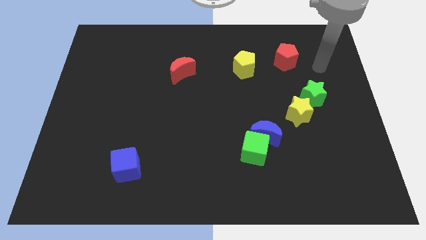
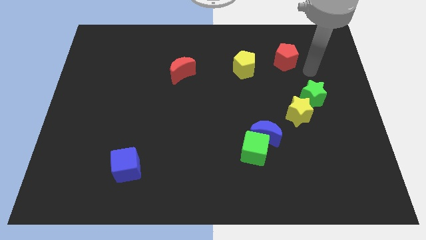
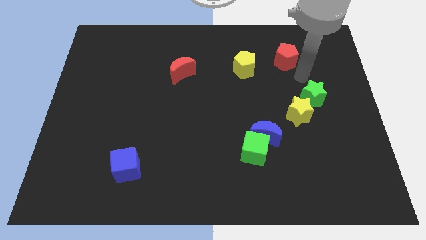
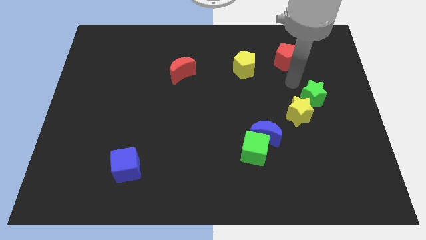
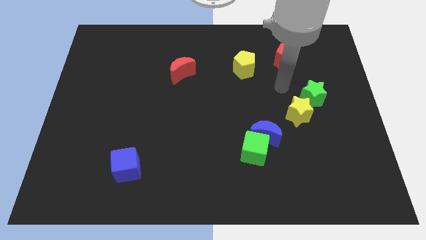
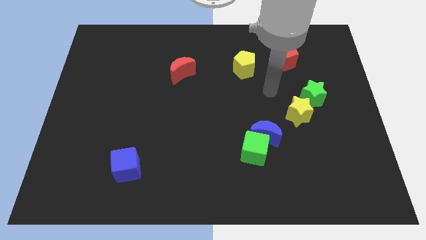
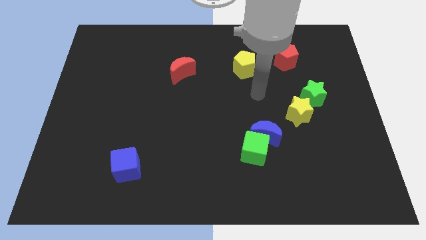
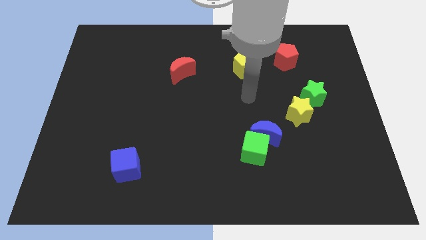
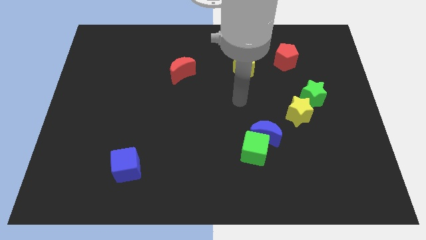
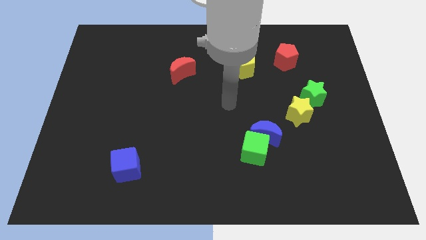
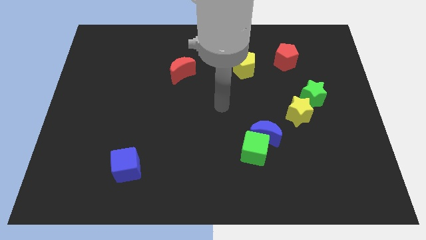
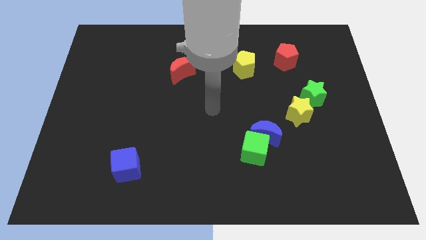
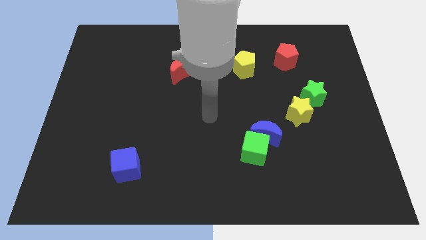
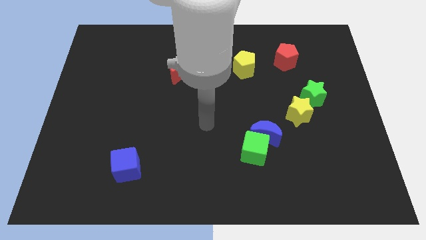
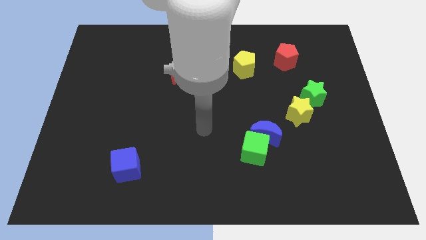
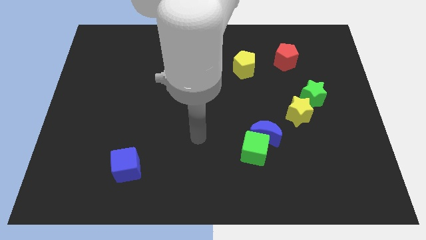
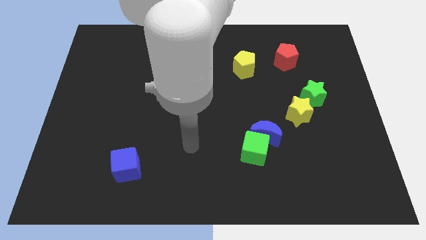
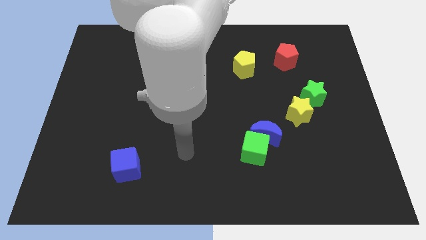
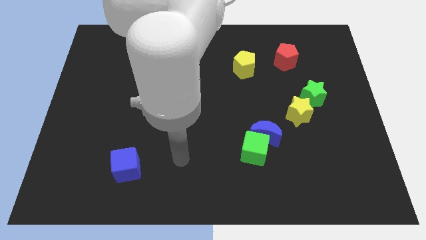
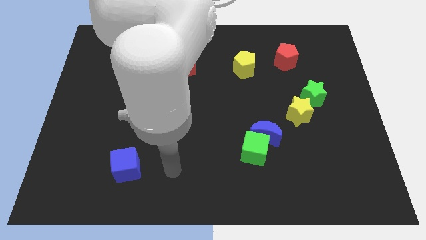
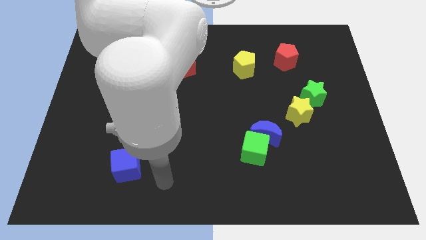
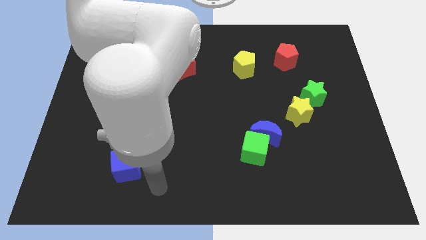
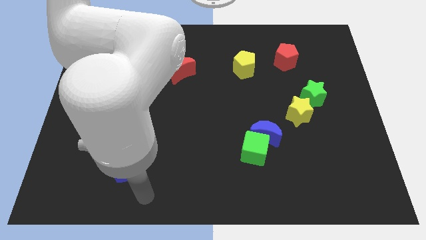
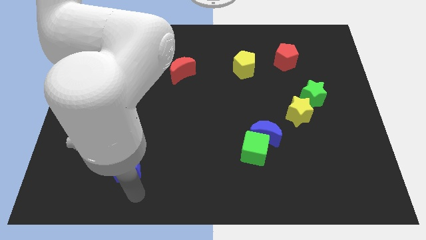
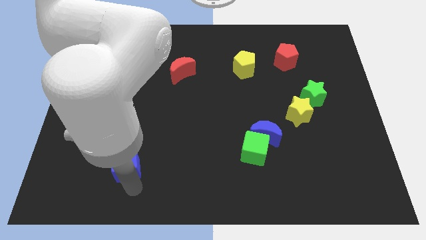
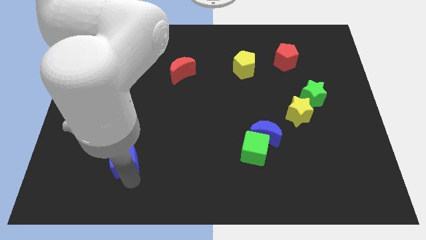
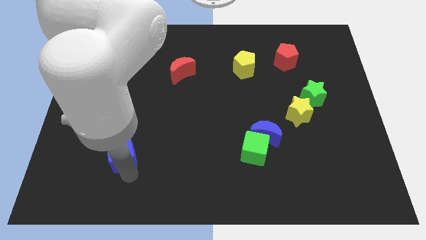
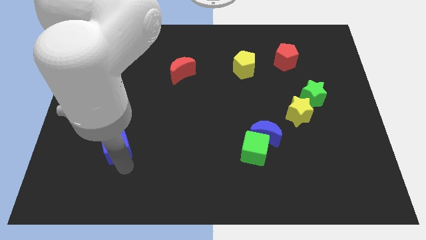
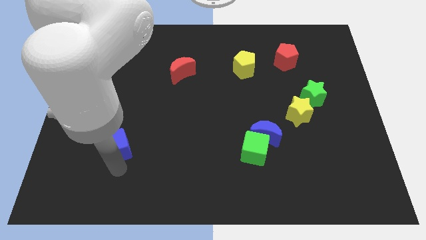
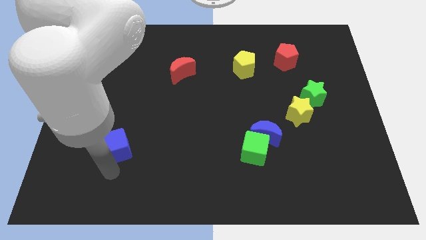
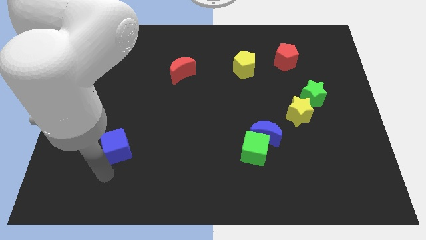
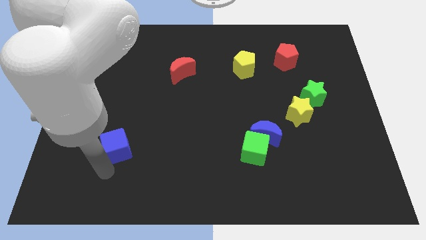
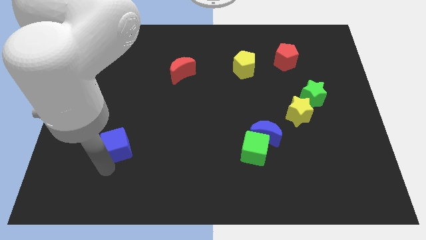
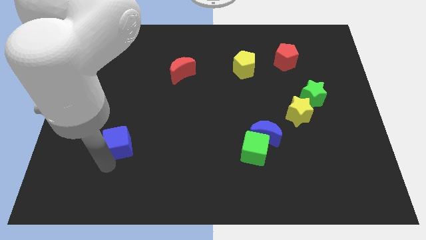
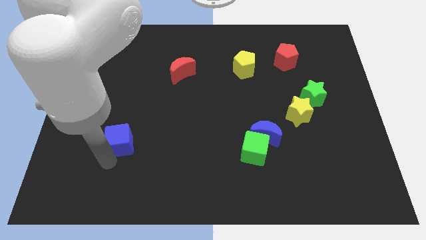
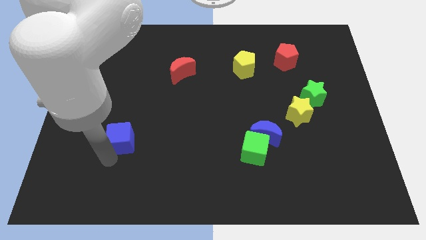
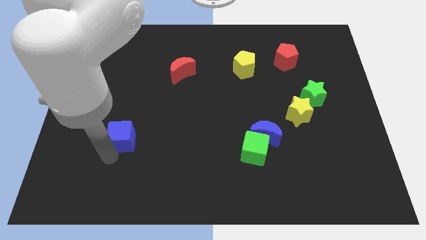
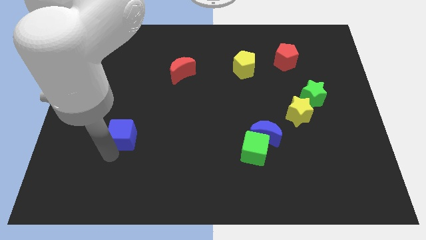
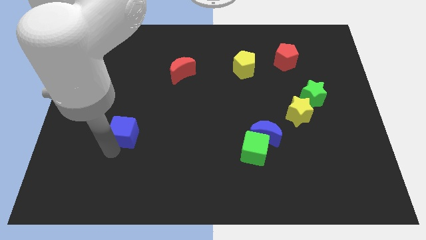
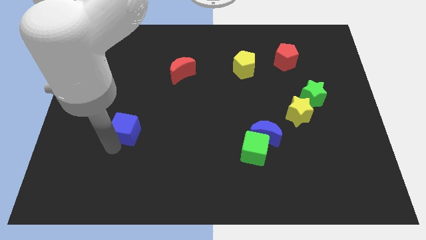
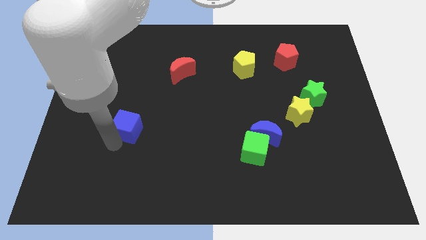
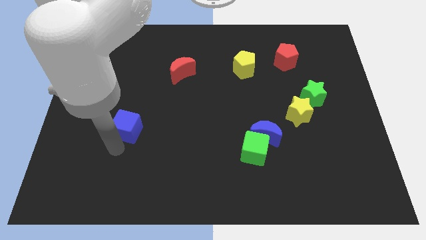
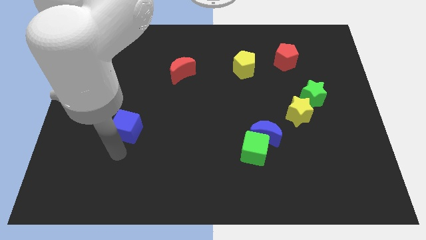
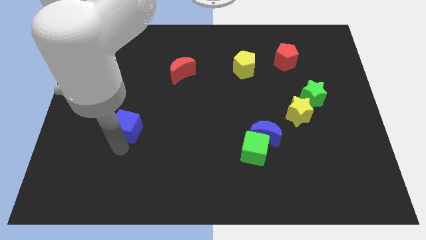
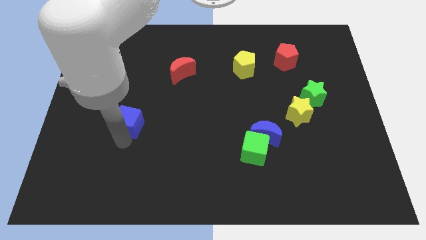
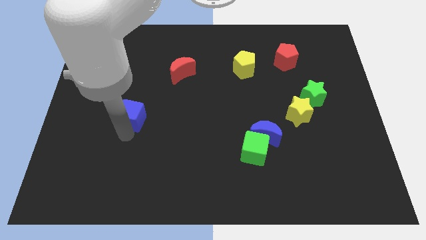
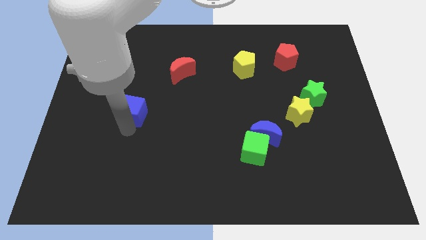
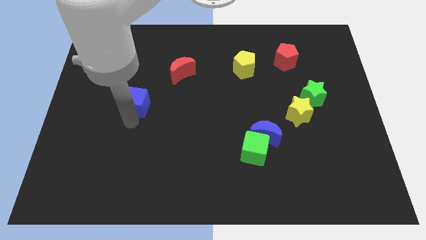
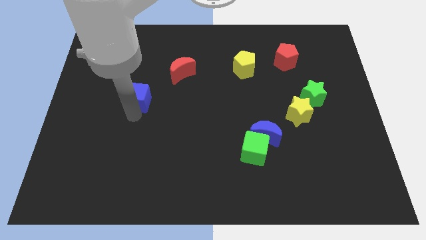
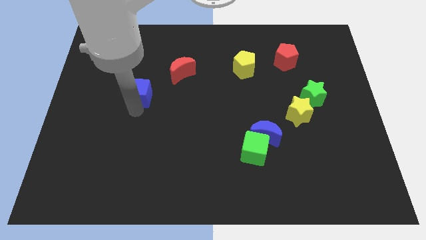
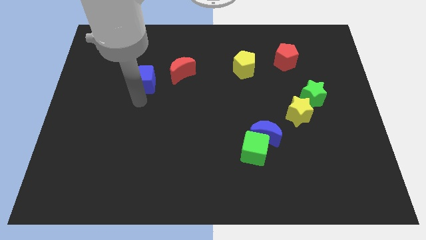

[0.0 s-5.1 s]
slide the blue cube upwards

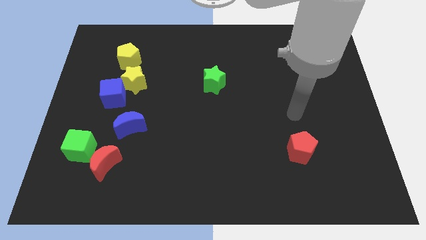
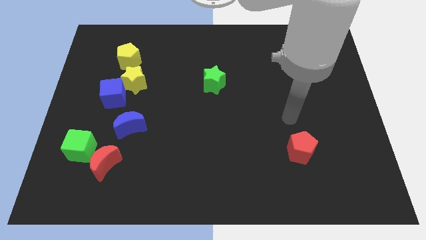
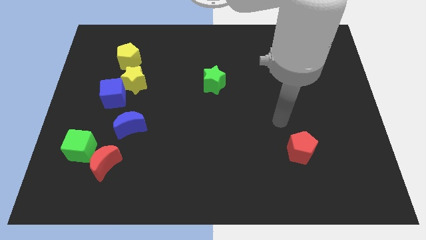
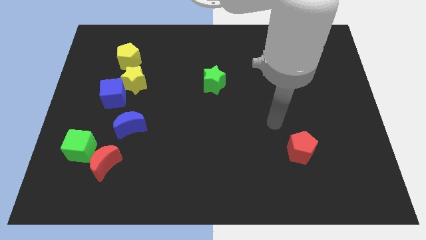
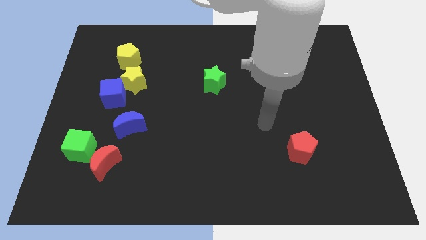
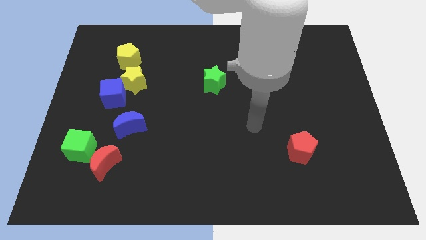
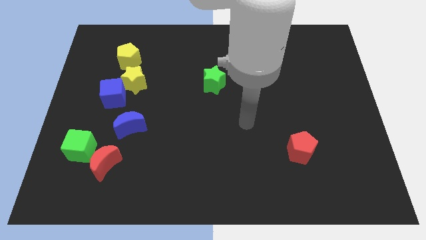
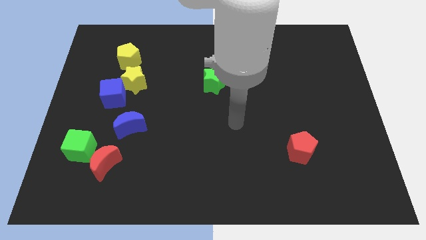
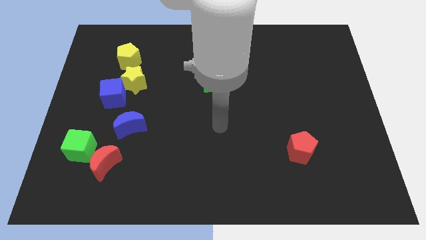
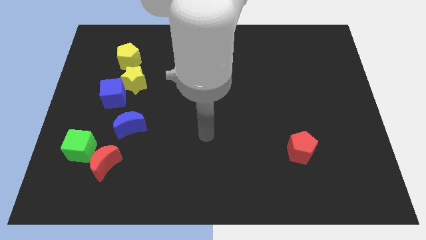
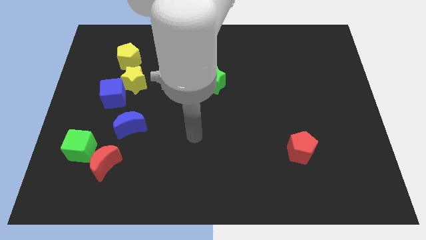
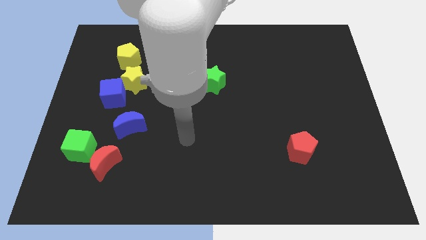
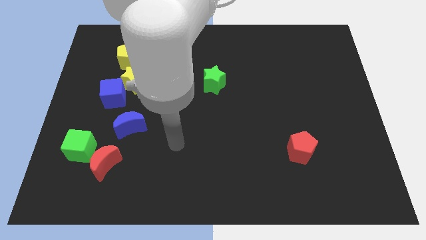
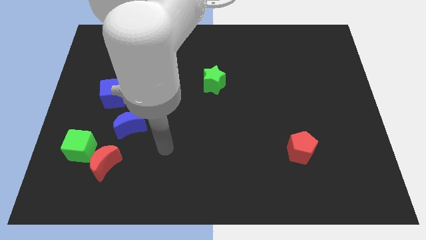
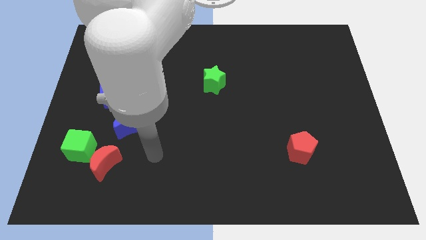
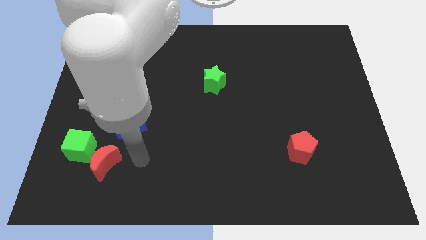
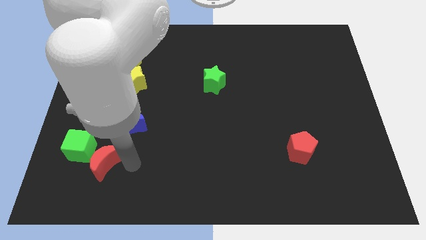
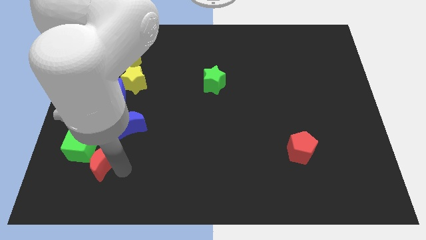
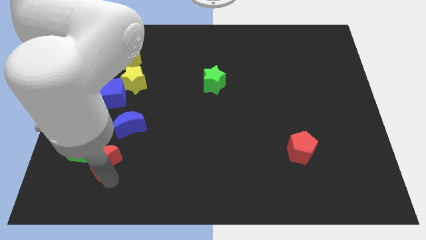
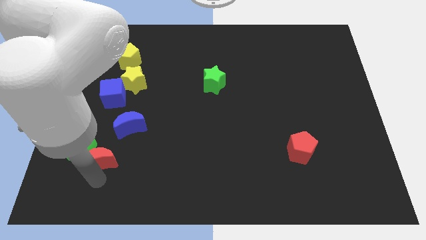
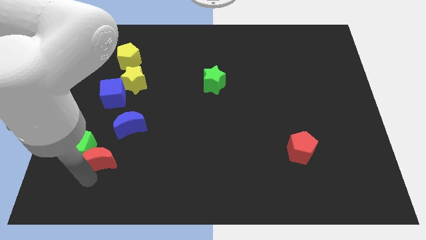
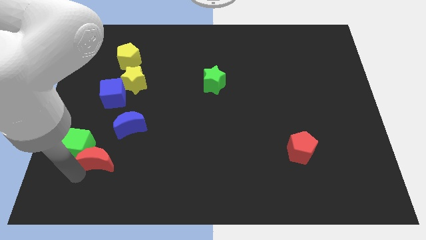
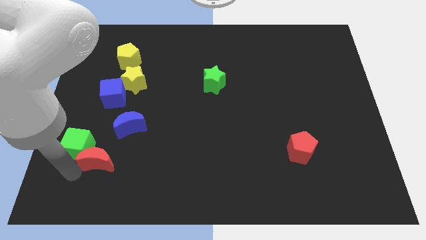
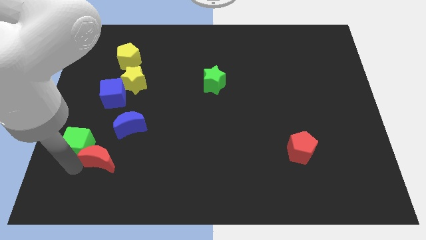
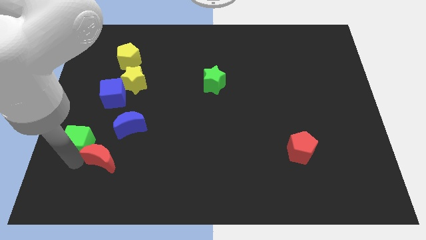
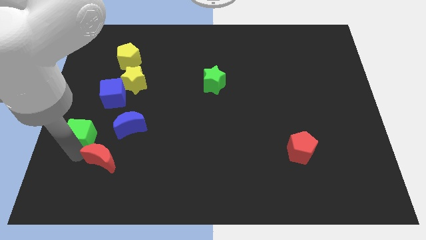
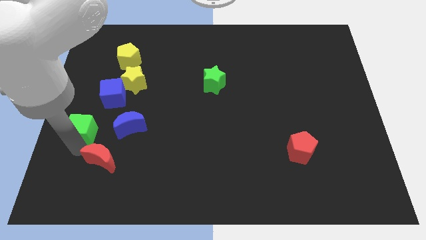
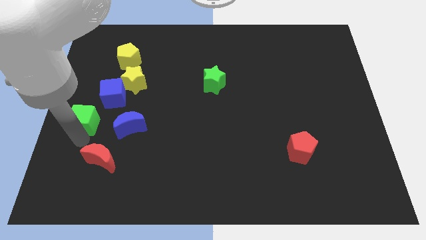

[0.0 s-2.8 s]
slide the green cube somewhat up

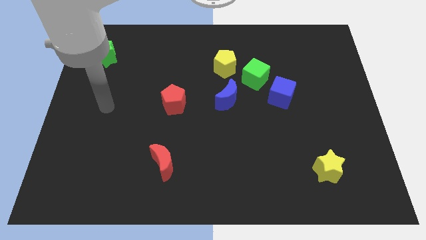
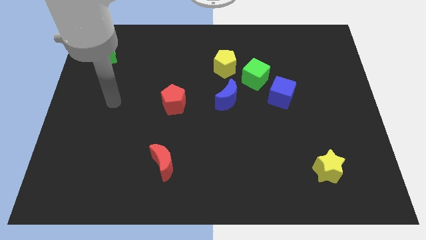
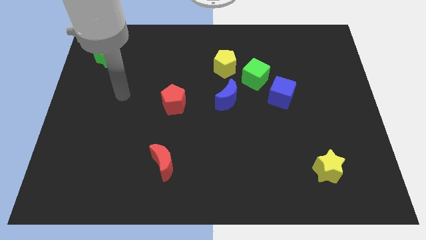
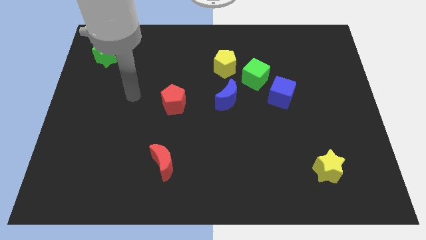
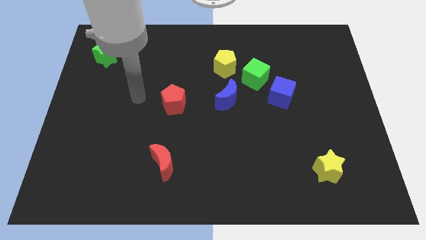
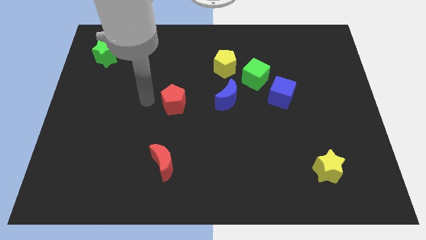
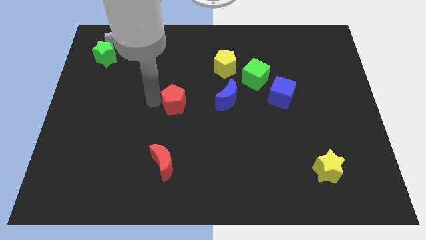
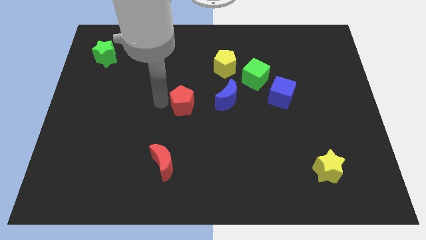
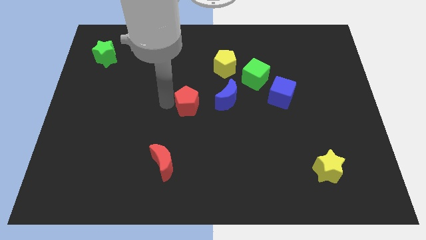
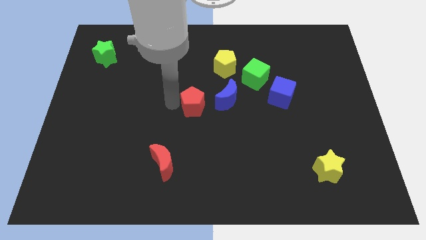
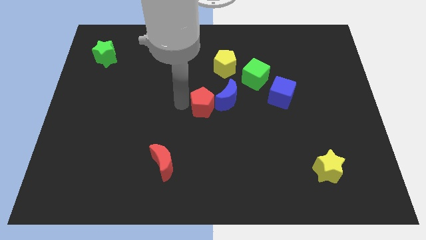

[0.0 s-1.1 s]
slightly push the red pentagon right
